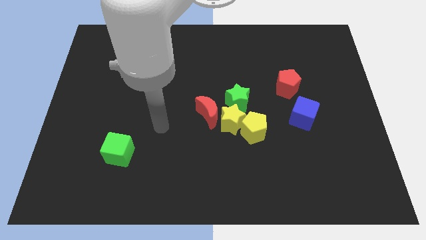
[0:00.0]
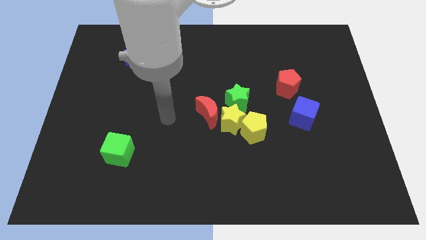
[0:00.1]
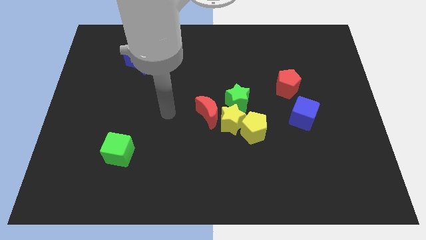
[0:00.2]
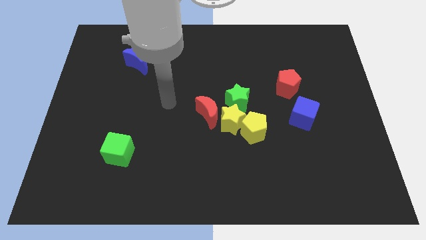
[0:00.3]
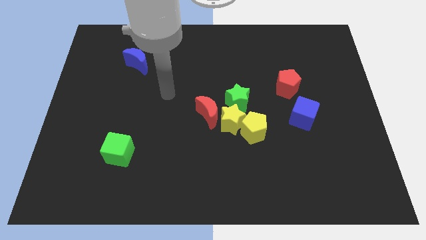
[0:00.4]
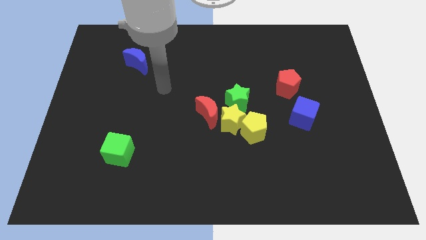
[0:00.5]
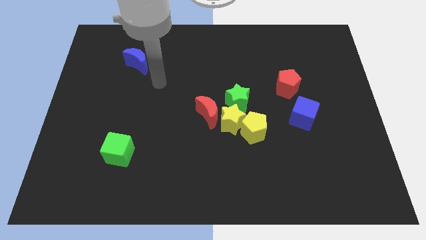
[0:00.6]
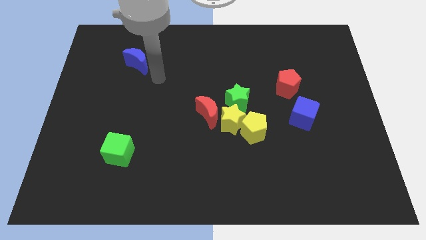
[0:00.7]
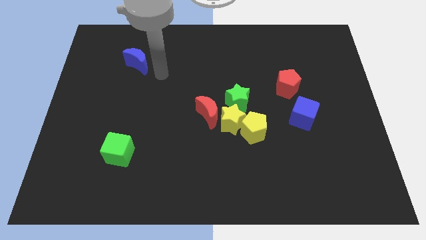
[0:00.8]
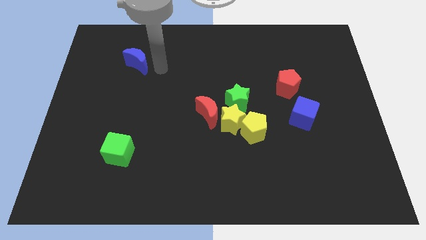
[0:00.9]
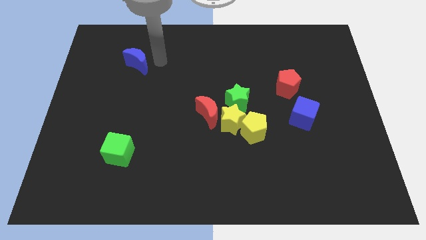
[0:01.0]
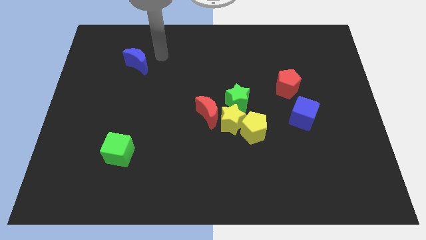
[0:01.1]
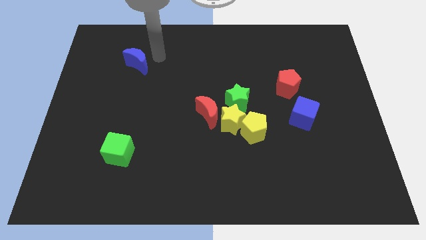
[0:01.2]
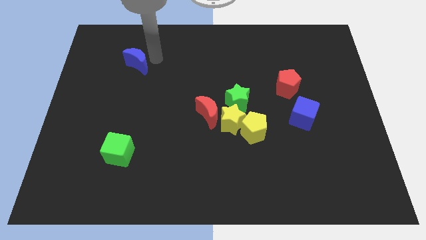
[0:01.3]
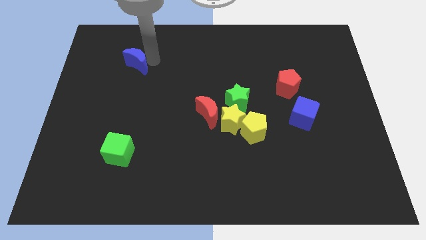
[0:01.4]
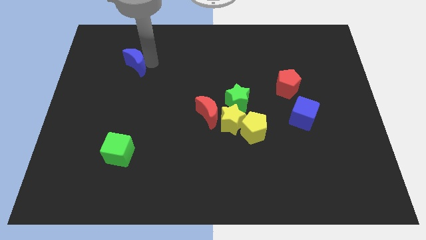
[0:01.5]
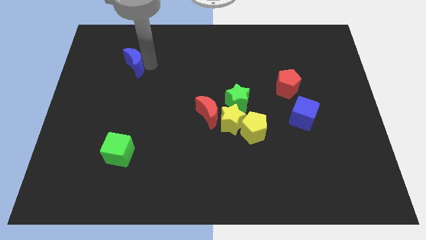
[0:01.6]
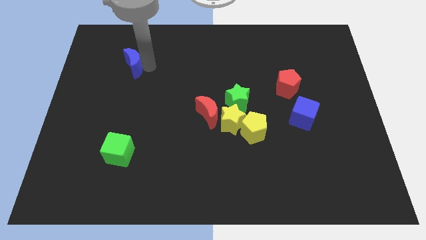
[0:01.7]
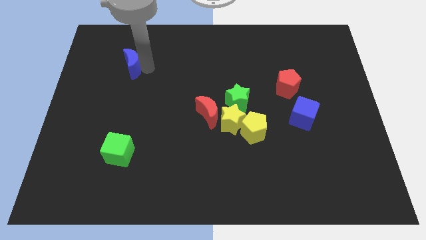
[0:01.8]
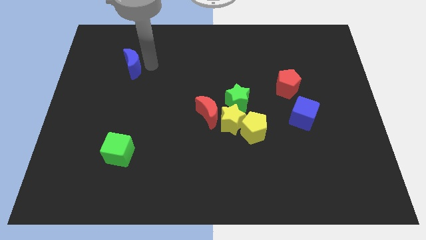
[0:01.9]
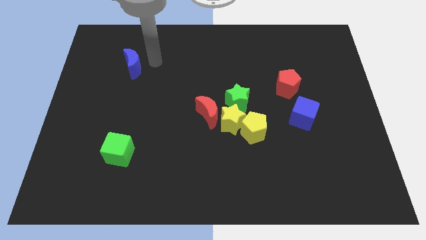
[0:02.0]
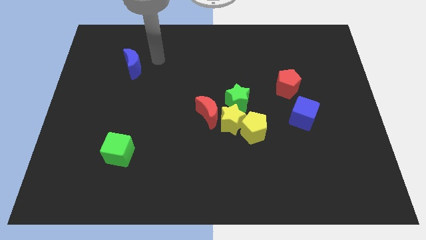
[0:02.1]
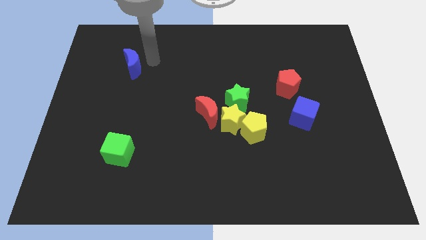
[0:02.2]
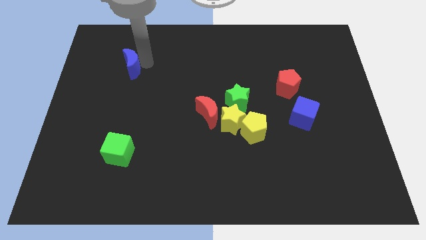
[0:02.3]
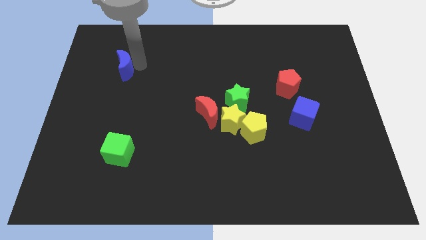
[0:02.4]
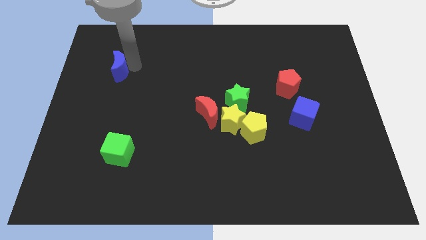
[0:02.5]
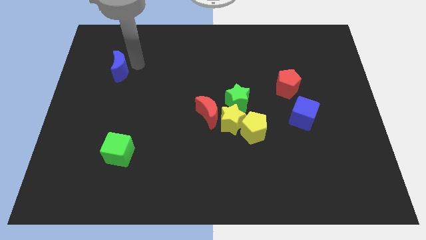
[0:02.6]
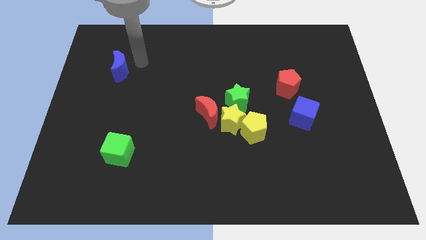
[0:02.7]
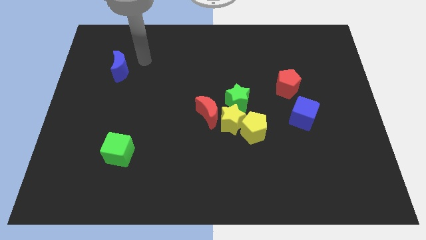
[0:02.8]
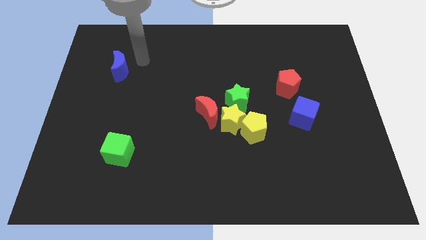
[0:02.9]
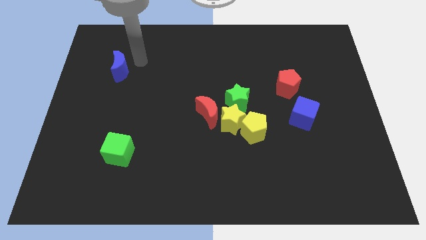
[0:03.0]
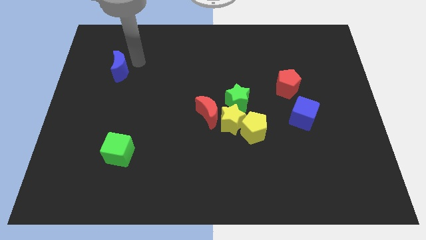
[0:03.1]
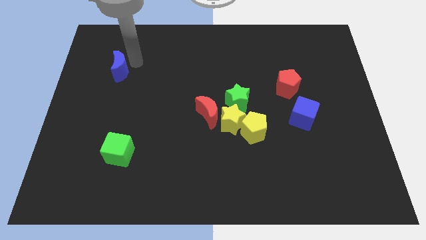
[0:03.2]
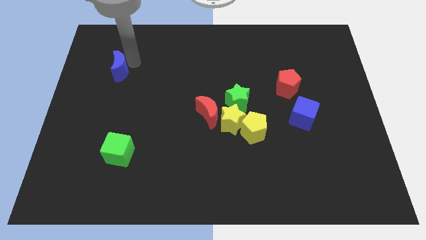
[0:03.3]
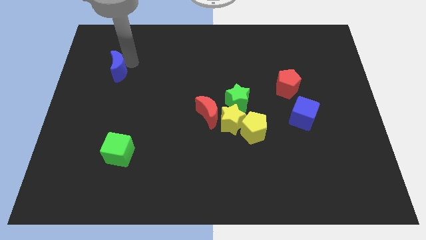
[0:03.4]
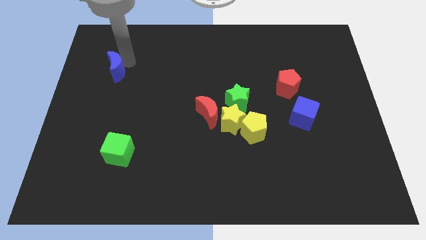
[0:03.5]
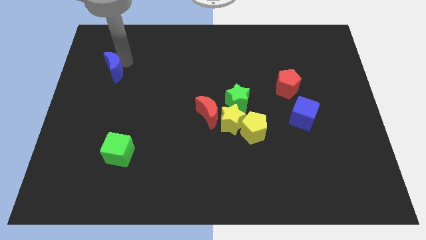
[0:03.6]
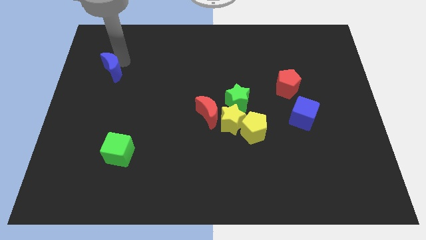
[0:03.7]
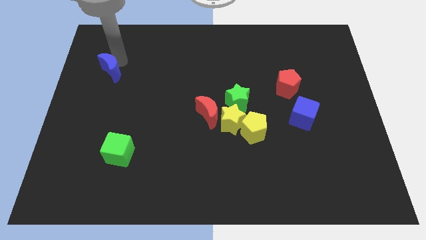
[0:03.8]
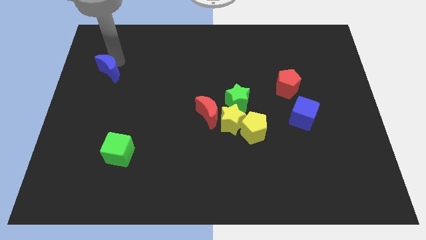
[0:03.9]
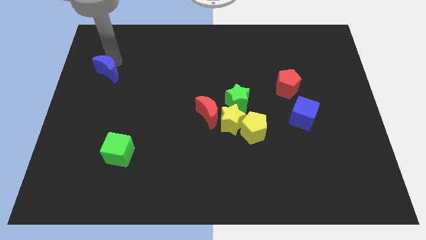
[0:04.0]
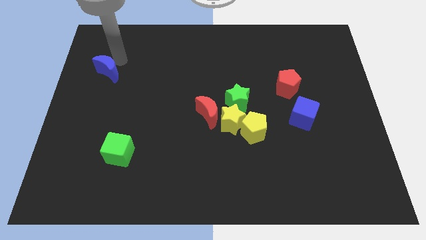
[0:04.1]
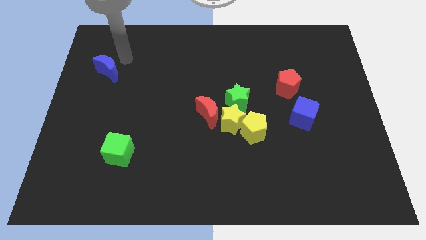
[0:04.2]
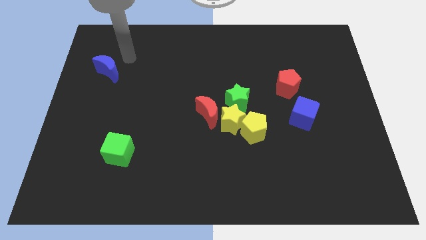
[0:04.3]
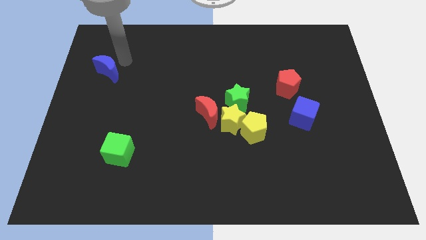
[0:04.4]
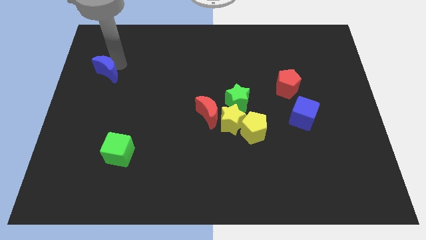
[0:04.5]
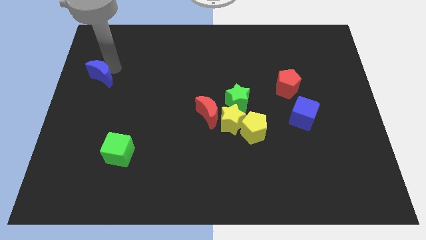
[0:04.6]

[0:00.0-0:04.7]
put the blue moon to the center left

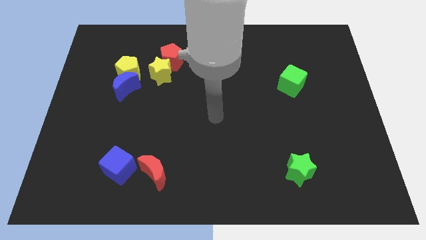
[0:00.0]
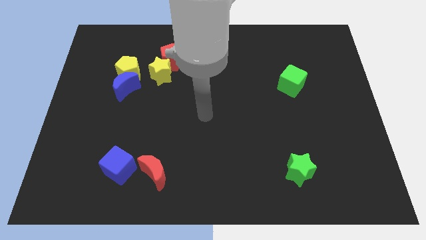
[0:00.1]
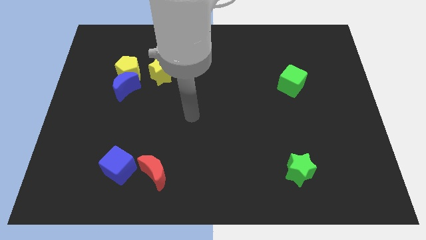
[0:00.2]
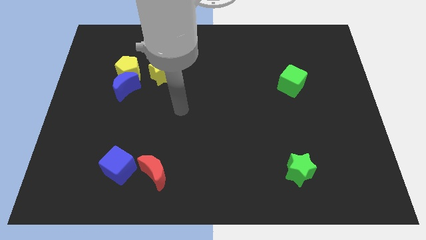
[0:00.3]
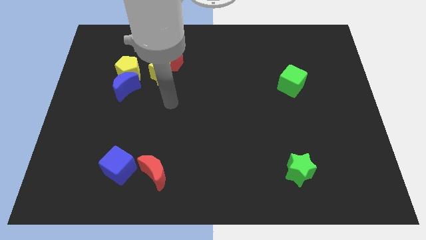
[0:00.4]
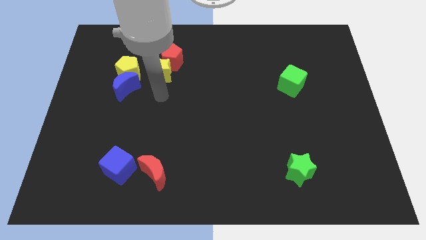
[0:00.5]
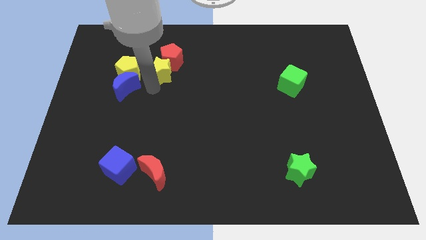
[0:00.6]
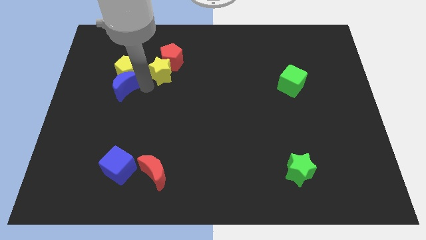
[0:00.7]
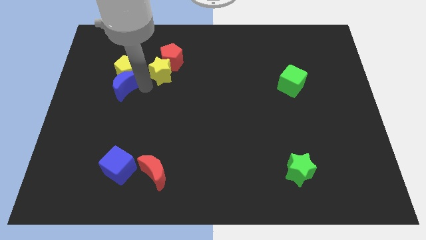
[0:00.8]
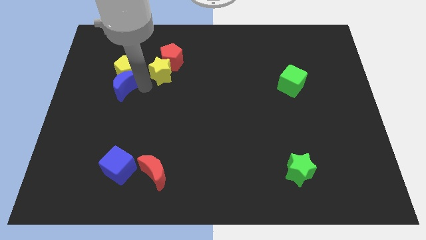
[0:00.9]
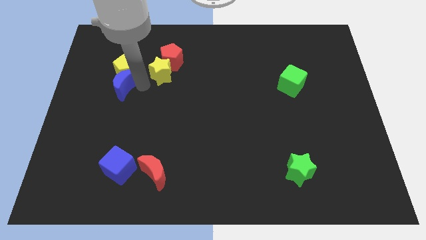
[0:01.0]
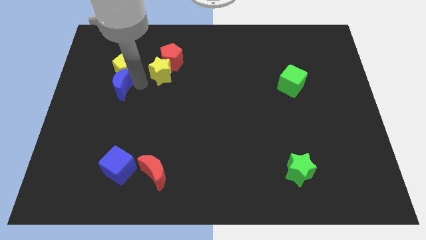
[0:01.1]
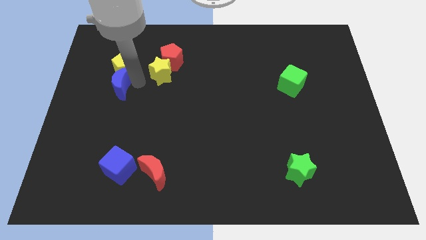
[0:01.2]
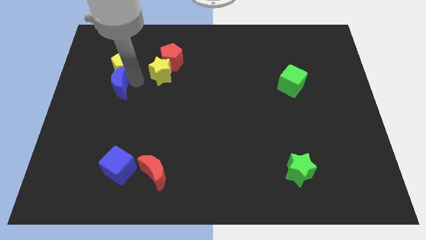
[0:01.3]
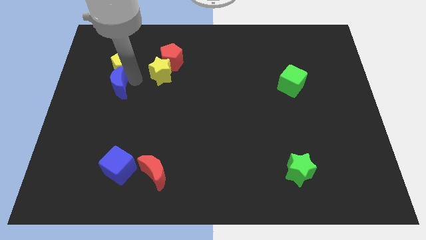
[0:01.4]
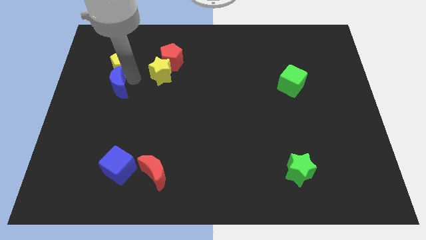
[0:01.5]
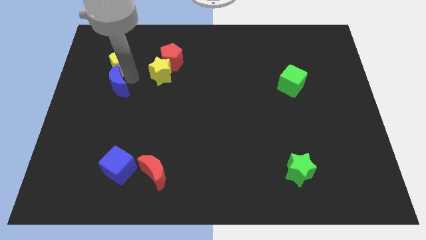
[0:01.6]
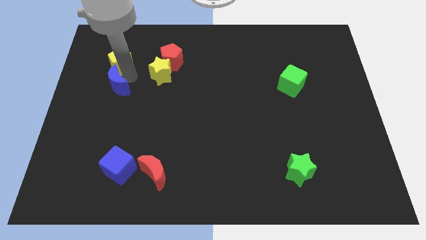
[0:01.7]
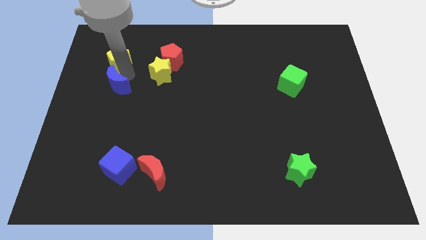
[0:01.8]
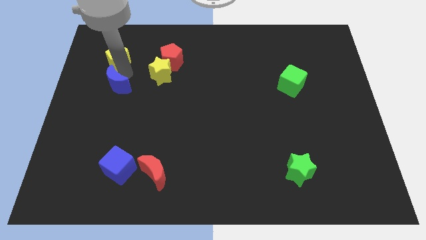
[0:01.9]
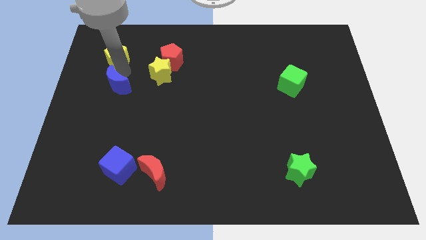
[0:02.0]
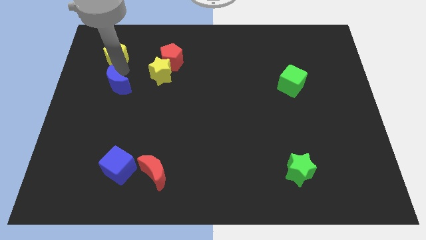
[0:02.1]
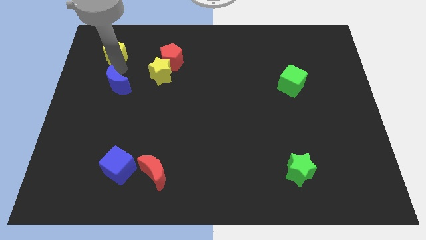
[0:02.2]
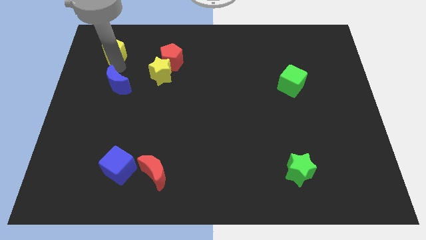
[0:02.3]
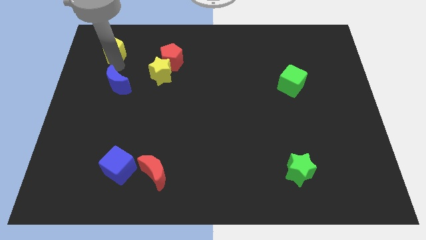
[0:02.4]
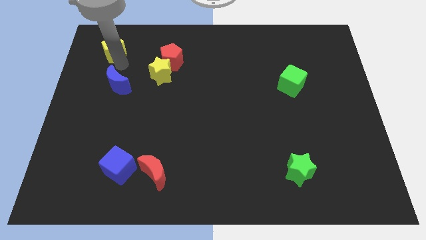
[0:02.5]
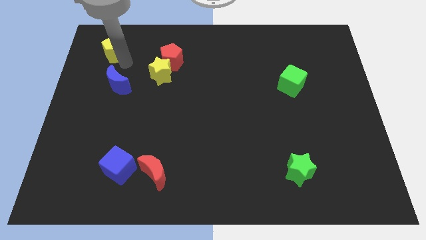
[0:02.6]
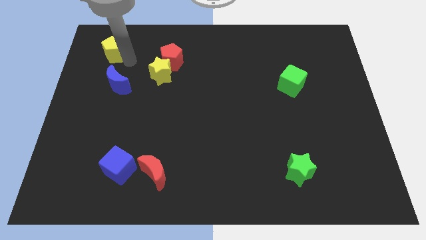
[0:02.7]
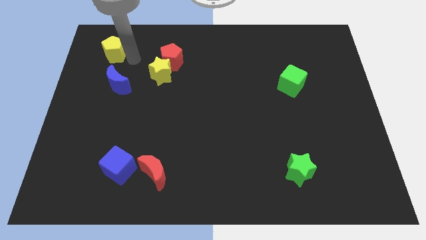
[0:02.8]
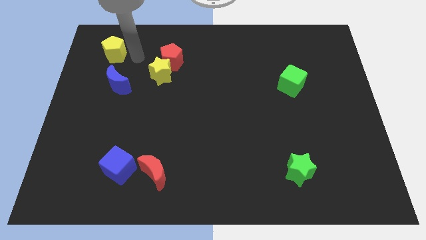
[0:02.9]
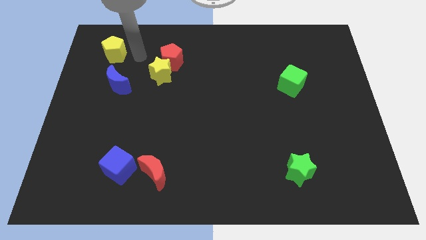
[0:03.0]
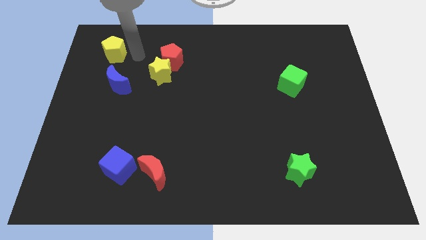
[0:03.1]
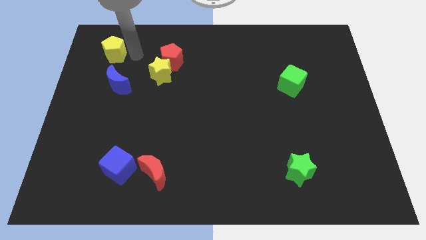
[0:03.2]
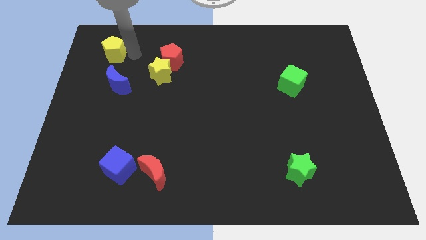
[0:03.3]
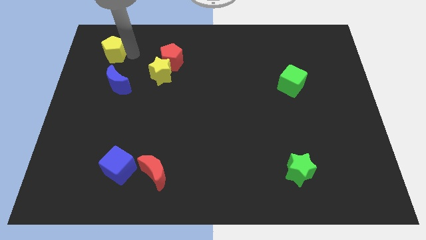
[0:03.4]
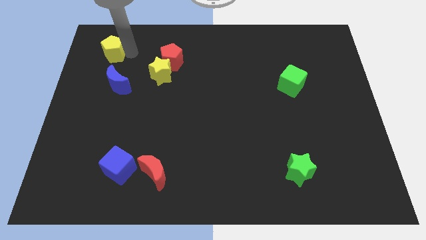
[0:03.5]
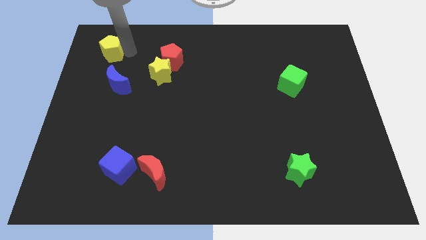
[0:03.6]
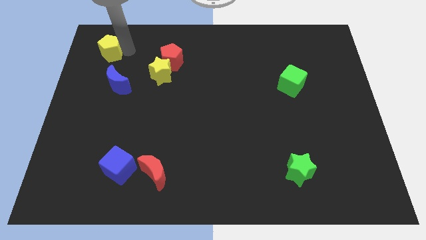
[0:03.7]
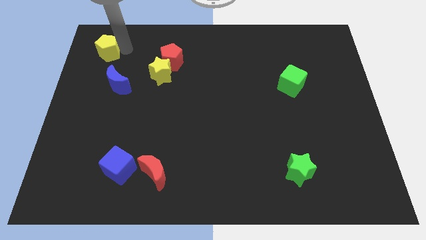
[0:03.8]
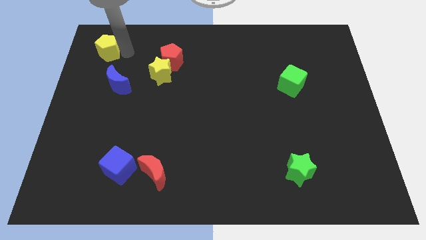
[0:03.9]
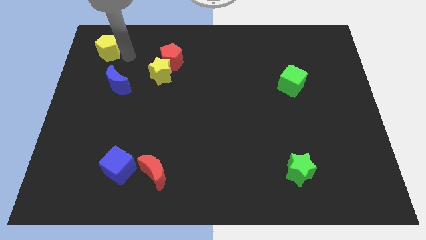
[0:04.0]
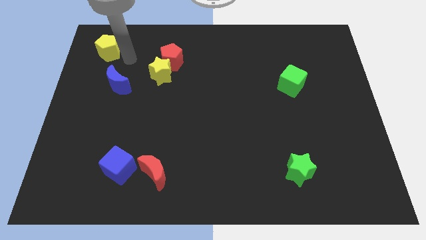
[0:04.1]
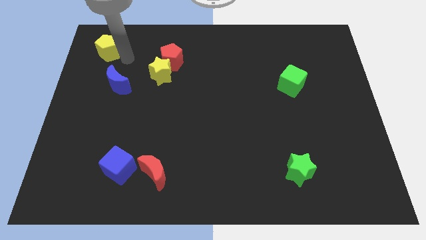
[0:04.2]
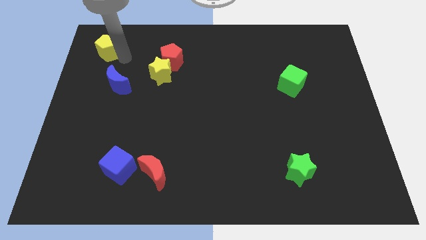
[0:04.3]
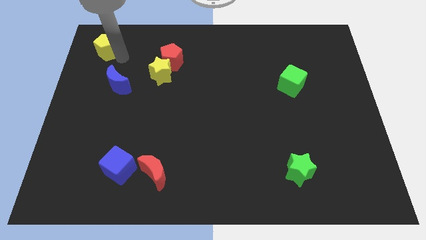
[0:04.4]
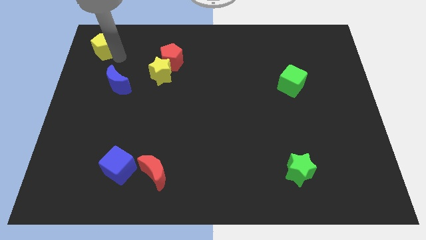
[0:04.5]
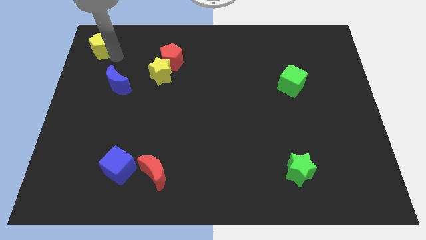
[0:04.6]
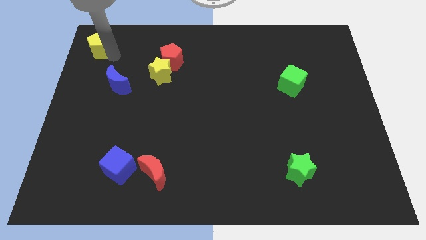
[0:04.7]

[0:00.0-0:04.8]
push the yellow pentagon to the top left of the board
